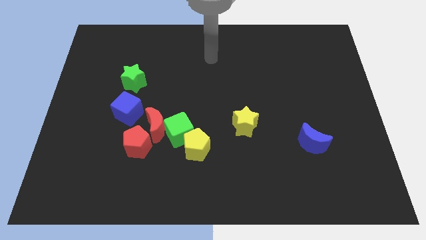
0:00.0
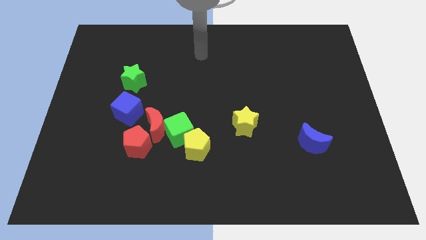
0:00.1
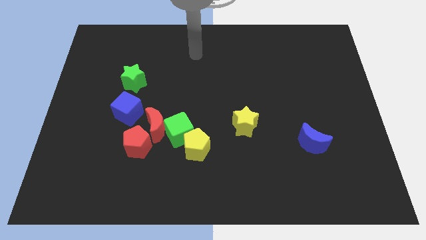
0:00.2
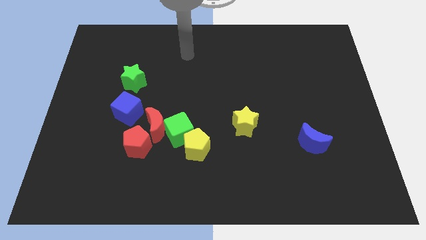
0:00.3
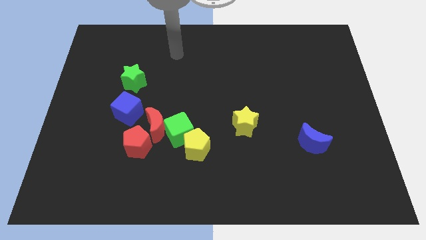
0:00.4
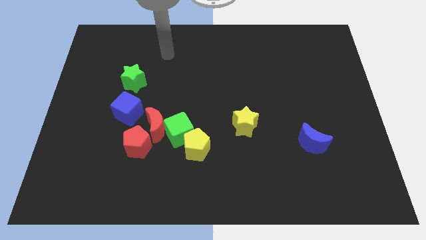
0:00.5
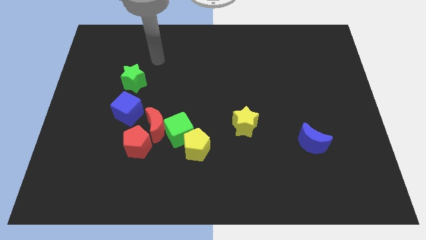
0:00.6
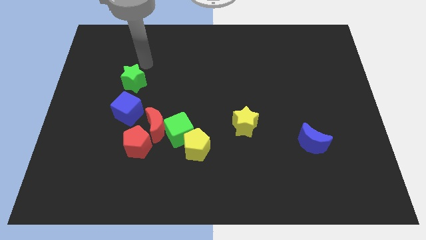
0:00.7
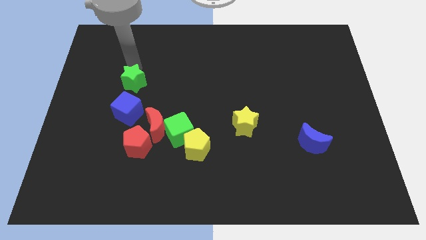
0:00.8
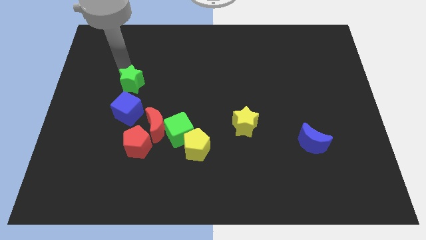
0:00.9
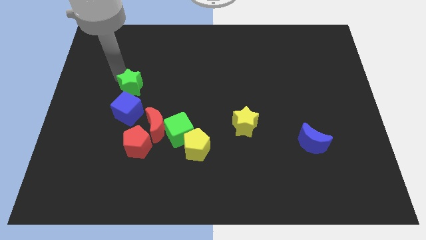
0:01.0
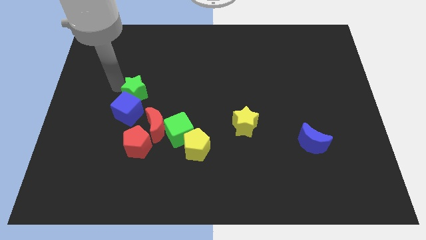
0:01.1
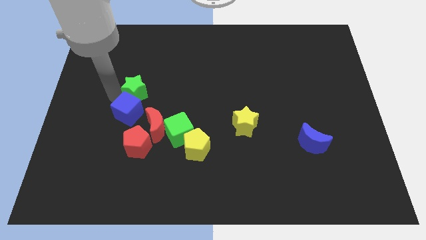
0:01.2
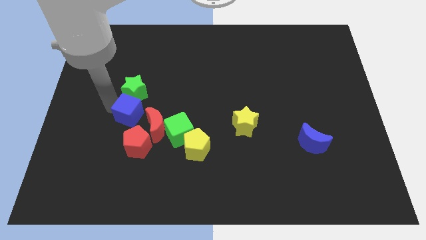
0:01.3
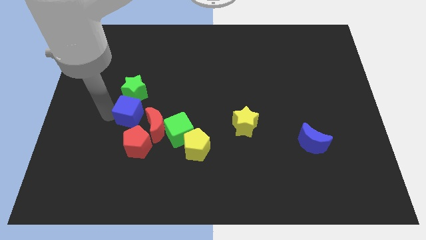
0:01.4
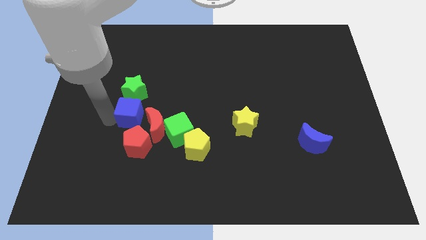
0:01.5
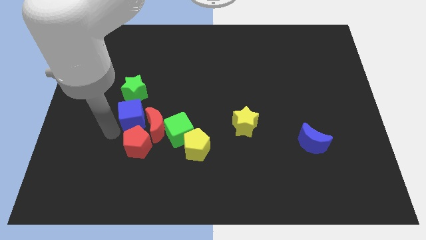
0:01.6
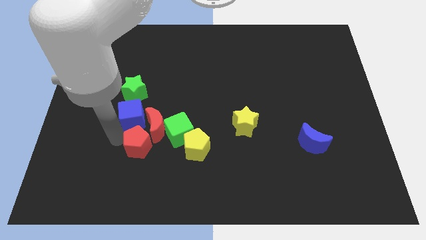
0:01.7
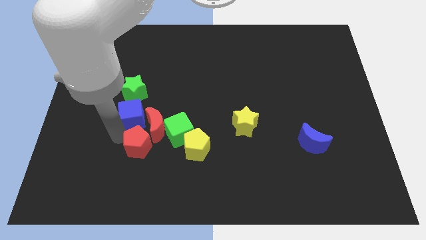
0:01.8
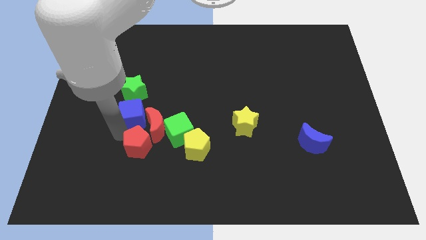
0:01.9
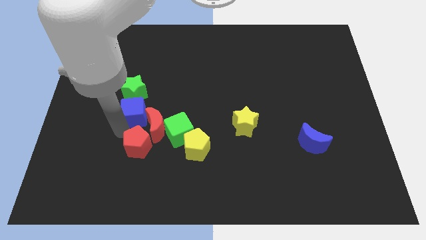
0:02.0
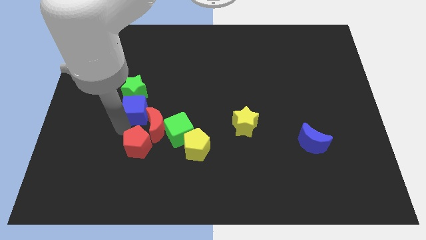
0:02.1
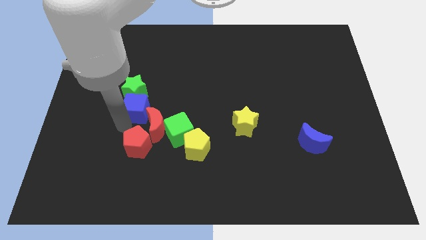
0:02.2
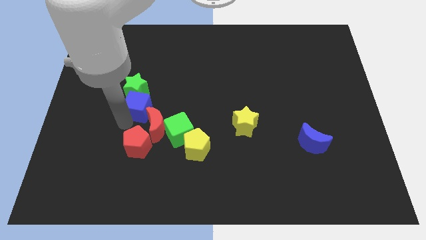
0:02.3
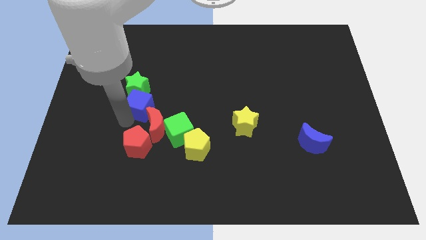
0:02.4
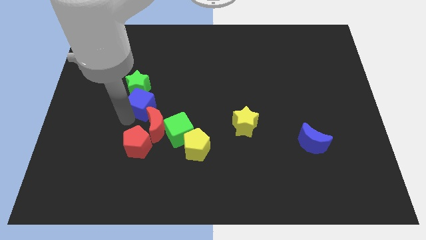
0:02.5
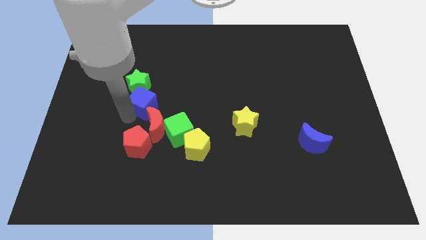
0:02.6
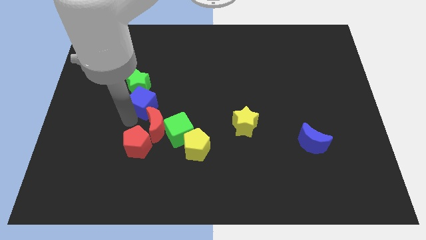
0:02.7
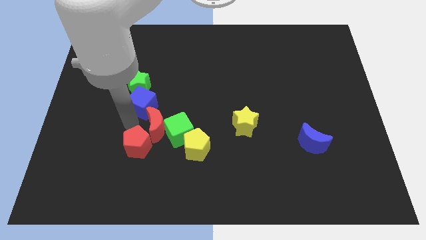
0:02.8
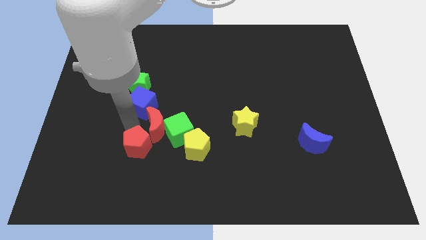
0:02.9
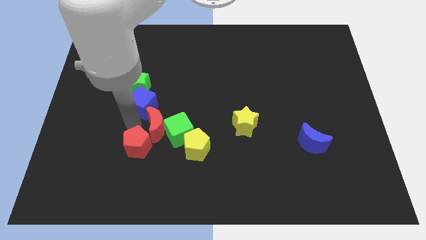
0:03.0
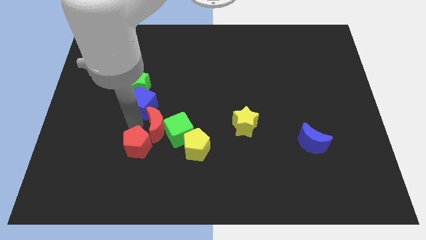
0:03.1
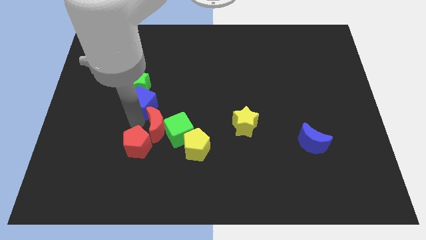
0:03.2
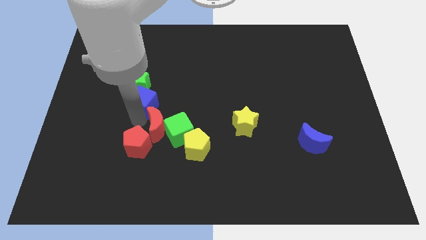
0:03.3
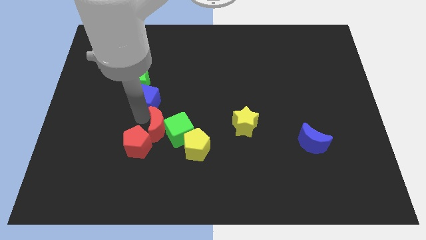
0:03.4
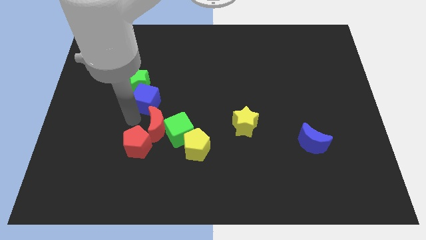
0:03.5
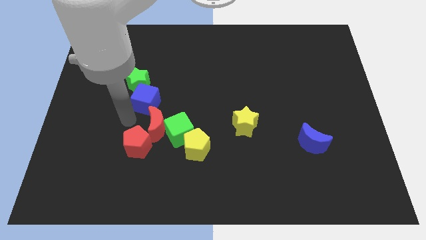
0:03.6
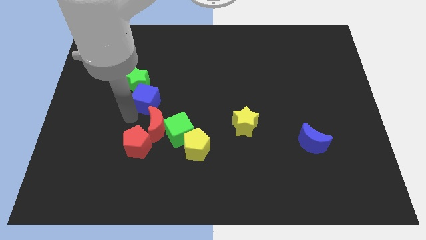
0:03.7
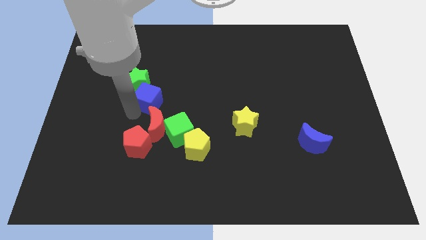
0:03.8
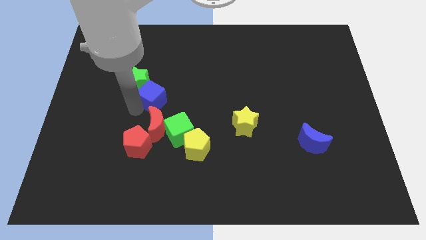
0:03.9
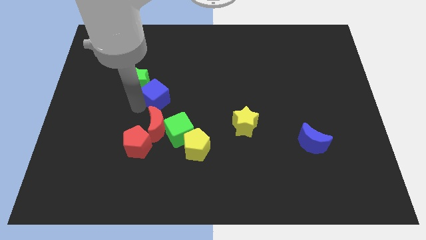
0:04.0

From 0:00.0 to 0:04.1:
slide the blue cube up and then to the right a bit

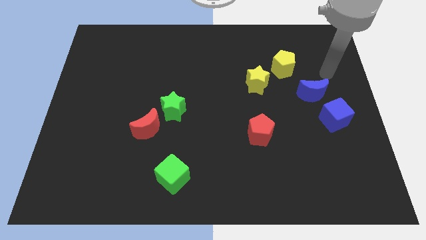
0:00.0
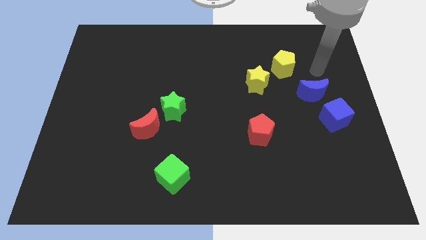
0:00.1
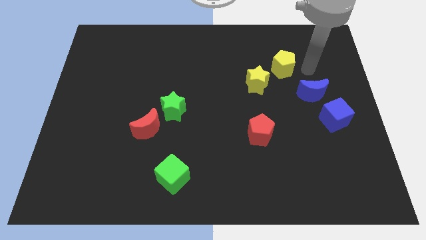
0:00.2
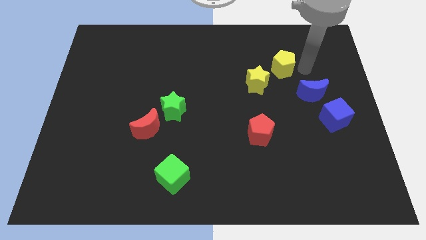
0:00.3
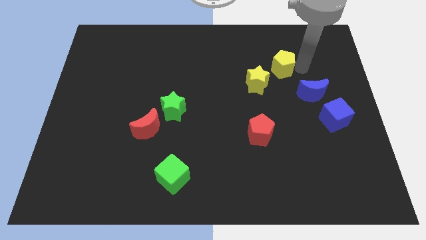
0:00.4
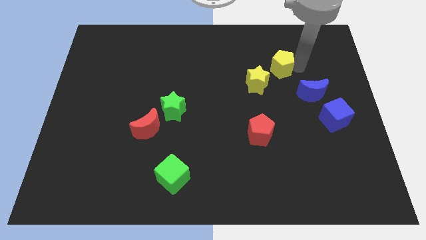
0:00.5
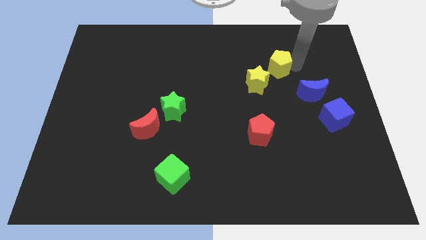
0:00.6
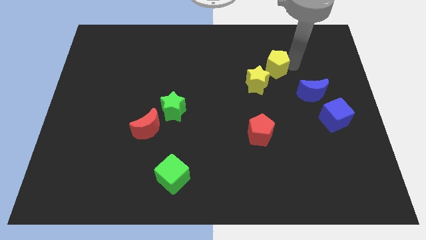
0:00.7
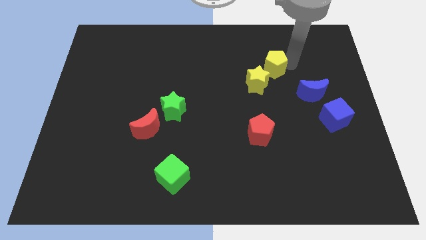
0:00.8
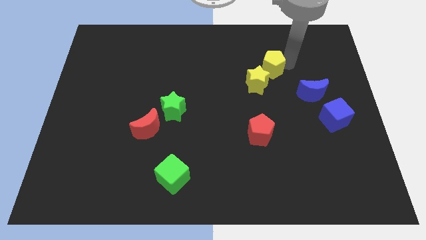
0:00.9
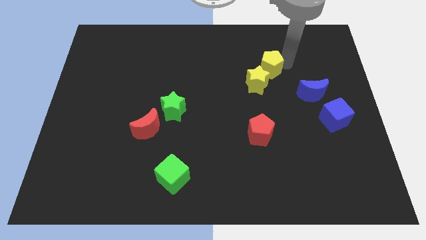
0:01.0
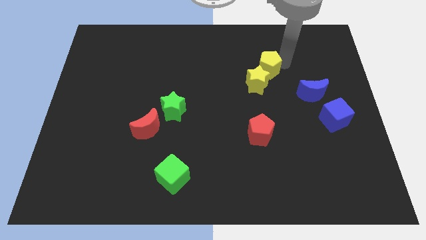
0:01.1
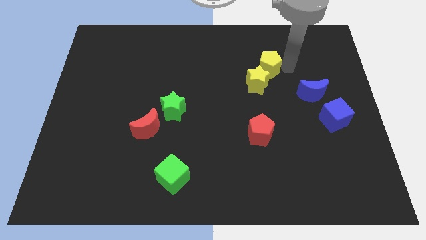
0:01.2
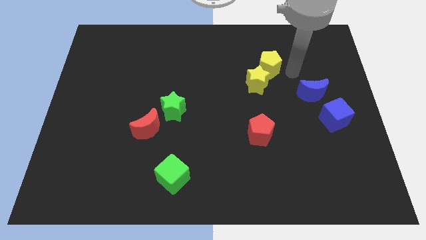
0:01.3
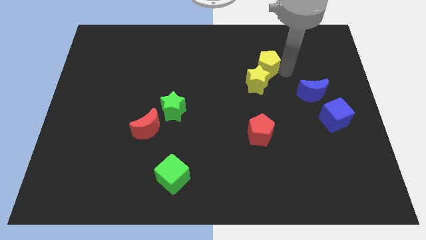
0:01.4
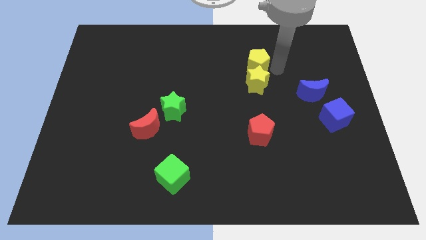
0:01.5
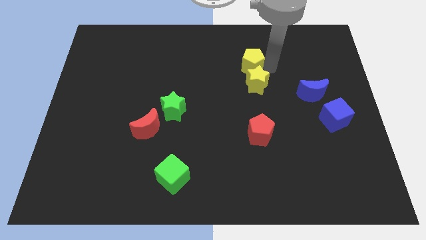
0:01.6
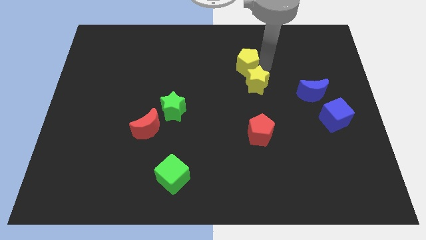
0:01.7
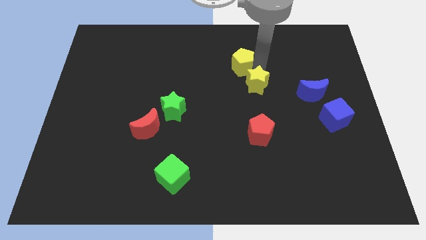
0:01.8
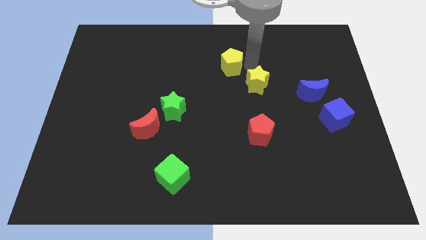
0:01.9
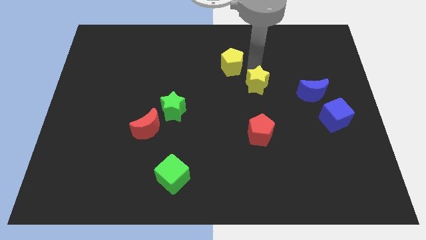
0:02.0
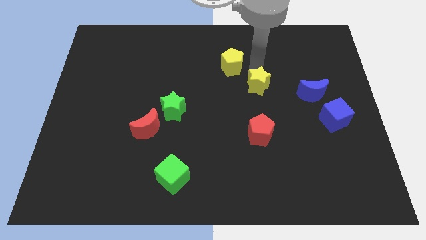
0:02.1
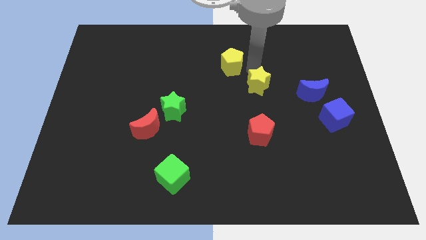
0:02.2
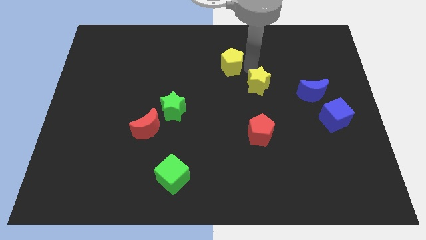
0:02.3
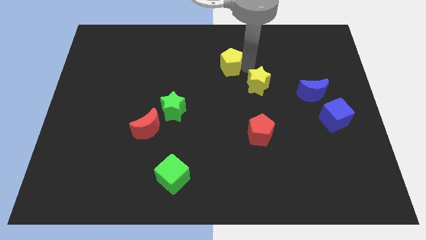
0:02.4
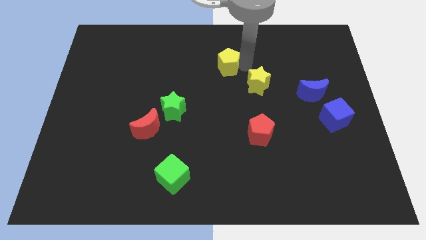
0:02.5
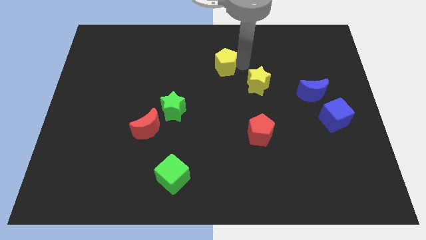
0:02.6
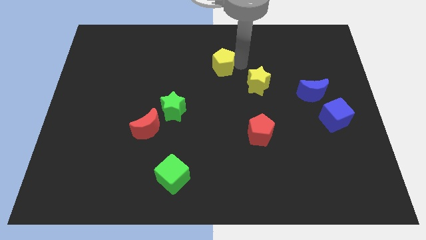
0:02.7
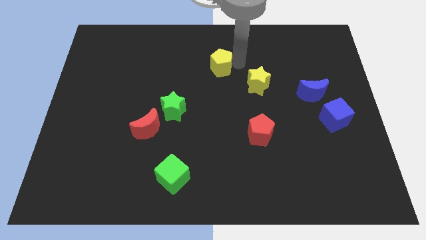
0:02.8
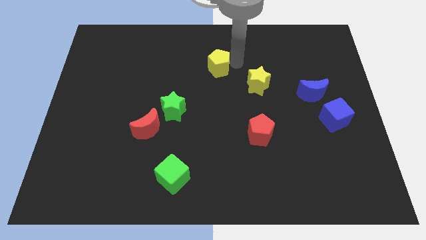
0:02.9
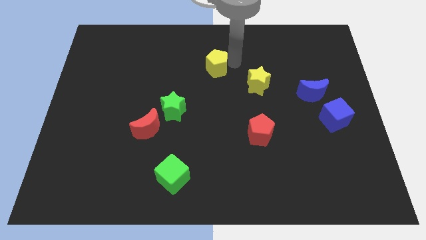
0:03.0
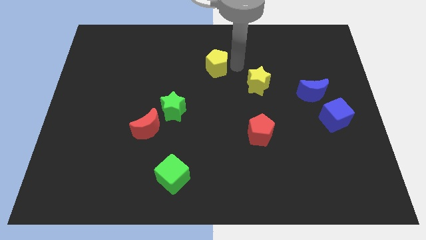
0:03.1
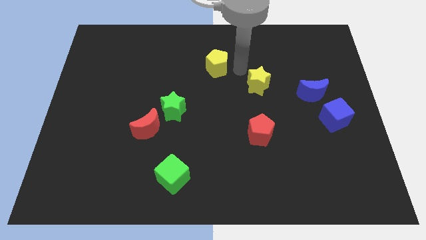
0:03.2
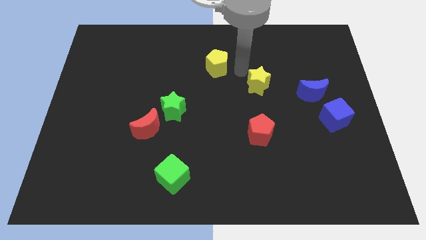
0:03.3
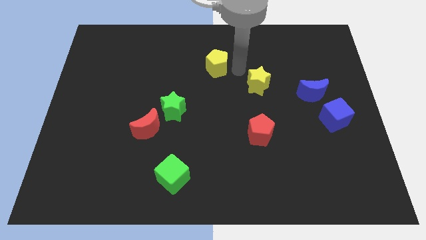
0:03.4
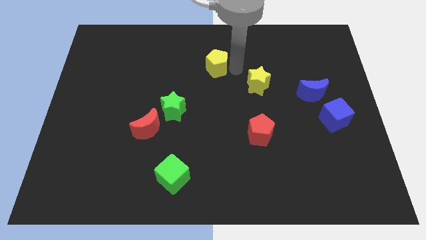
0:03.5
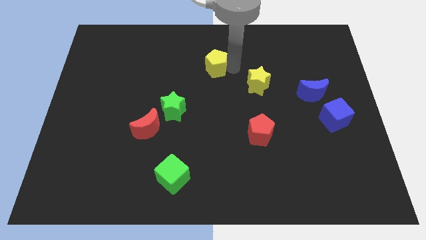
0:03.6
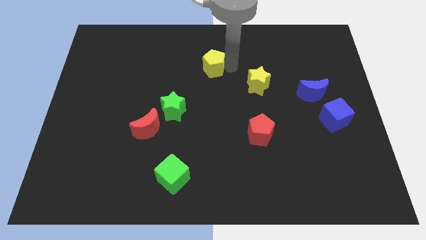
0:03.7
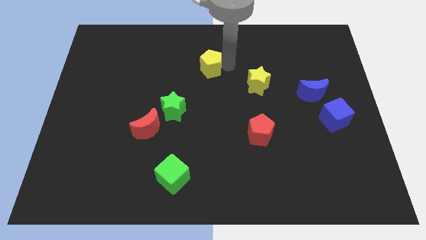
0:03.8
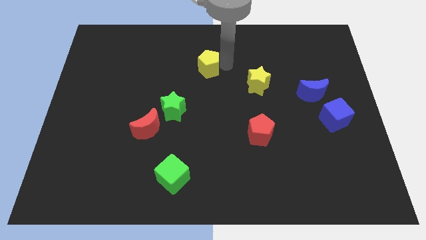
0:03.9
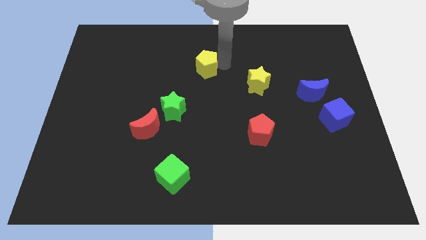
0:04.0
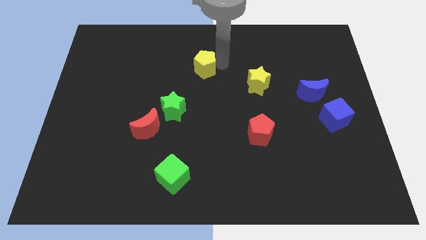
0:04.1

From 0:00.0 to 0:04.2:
push the yellow pentagon left
